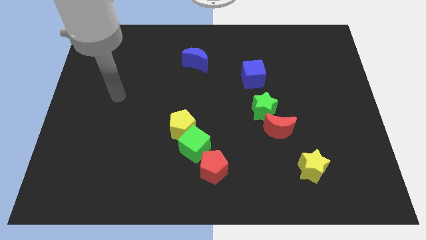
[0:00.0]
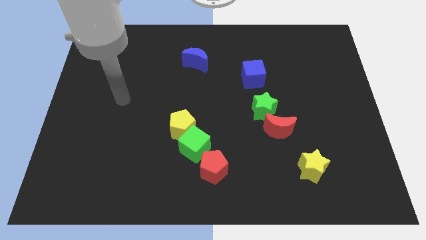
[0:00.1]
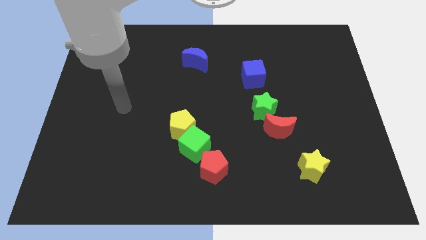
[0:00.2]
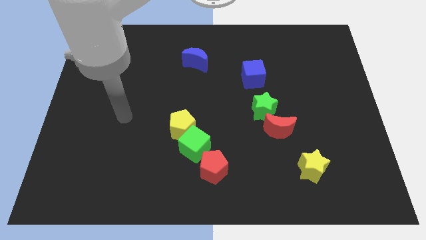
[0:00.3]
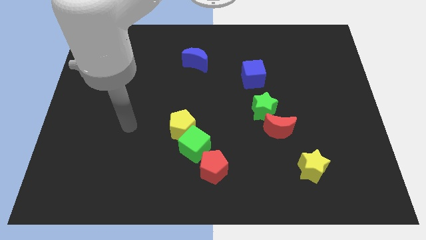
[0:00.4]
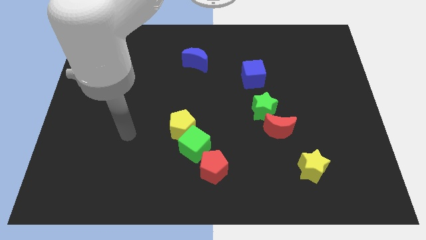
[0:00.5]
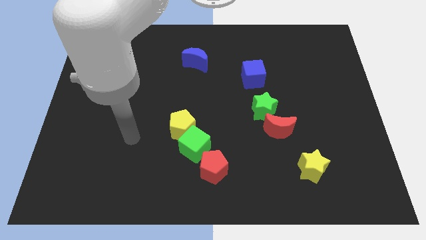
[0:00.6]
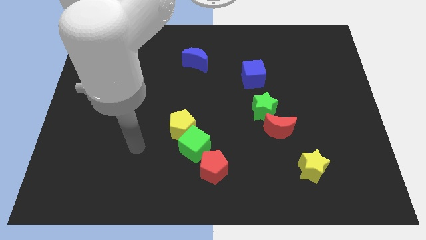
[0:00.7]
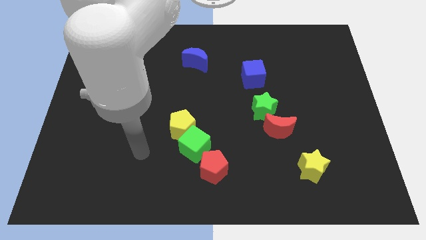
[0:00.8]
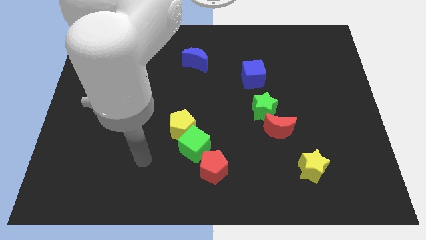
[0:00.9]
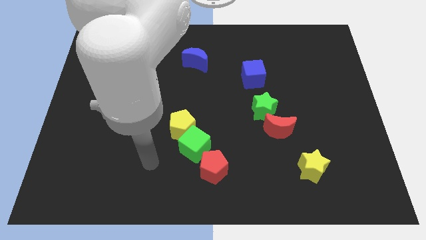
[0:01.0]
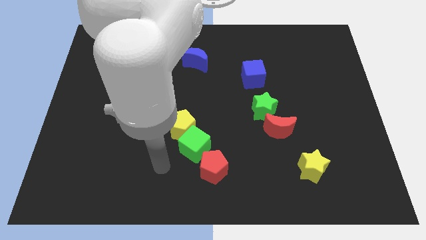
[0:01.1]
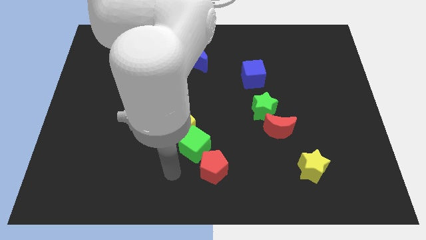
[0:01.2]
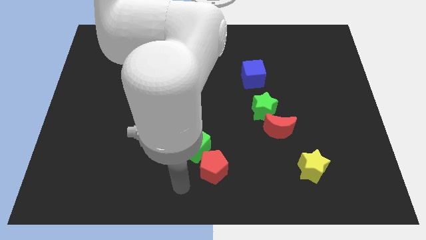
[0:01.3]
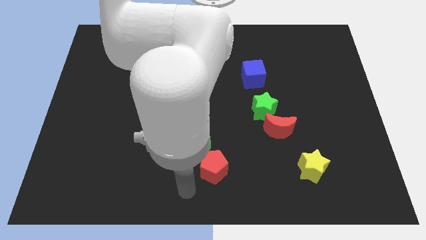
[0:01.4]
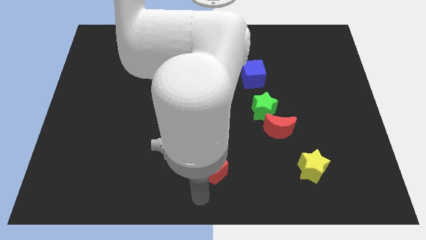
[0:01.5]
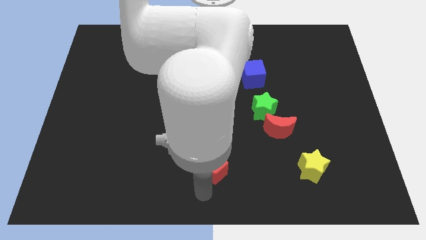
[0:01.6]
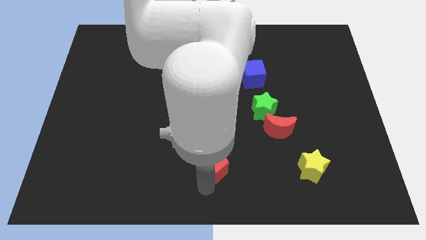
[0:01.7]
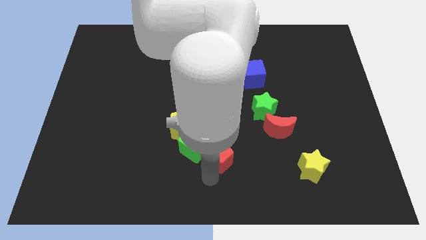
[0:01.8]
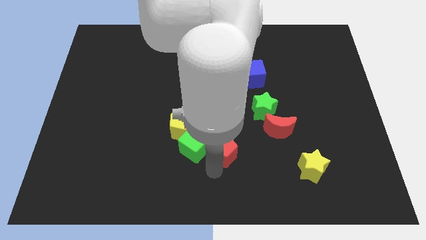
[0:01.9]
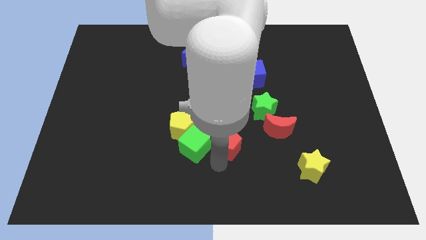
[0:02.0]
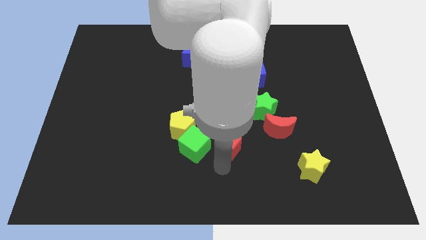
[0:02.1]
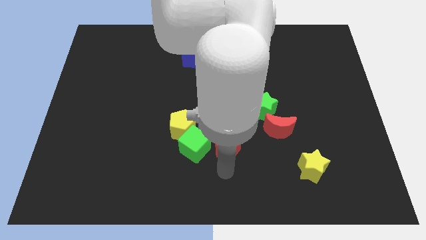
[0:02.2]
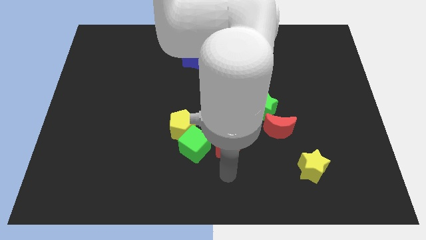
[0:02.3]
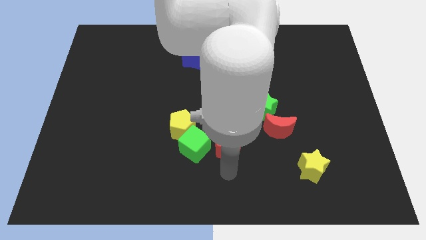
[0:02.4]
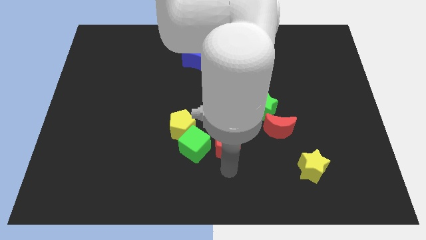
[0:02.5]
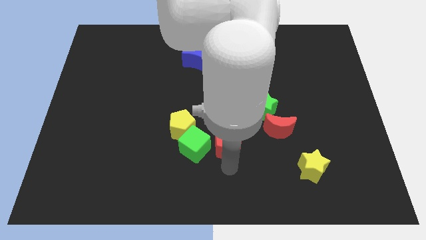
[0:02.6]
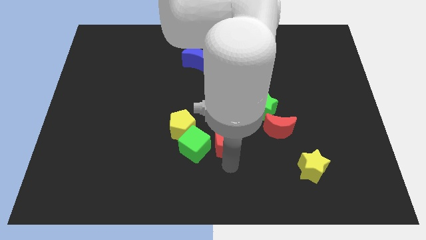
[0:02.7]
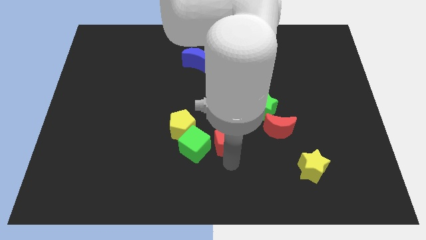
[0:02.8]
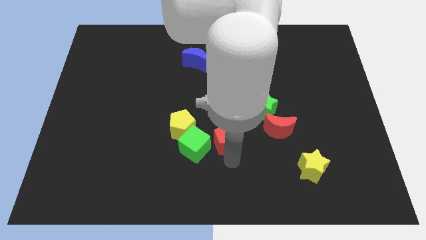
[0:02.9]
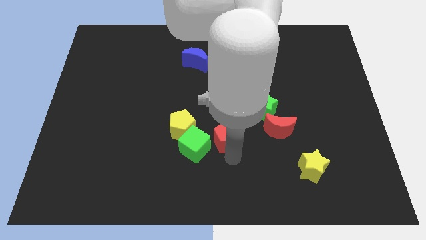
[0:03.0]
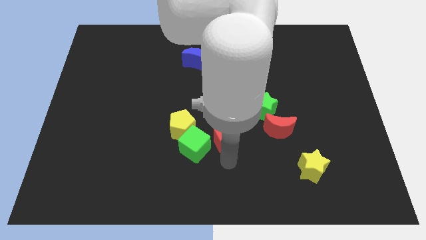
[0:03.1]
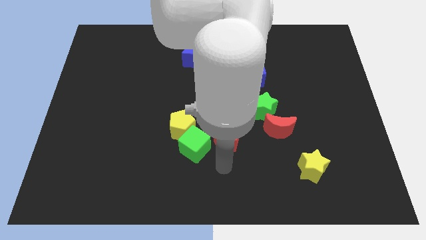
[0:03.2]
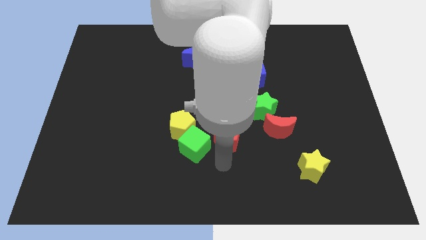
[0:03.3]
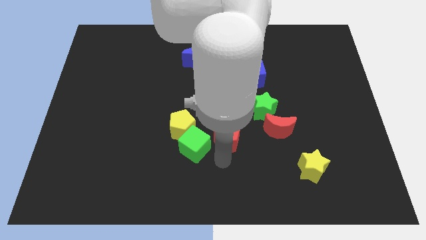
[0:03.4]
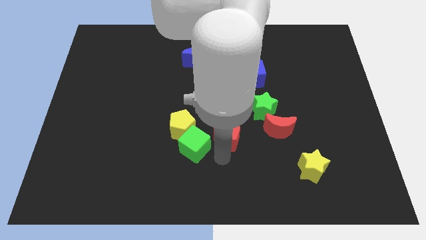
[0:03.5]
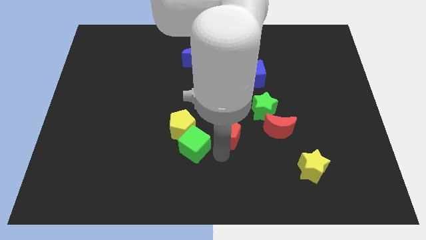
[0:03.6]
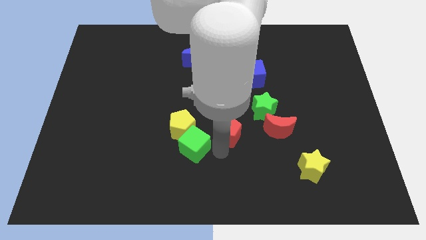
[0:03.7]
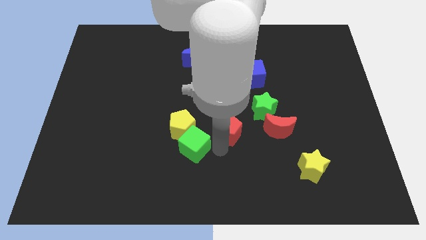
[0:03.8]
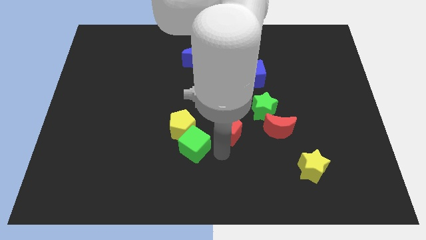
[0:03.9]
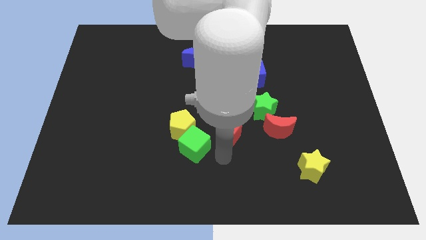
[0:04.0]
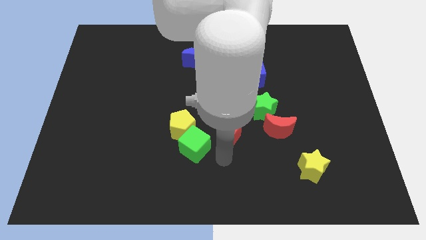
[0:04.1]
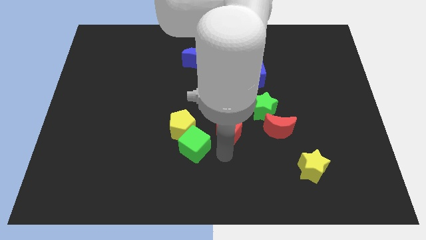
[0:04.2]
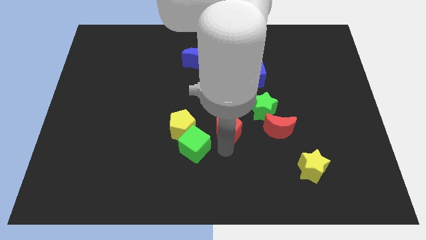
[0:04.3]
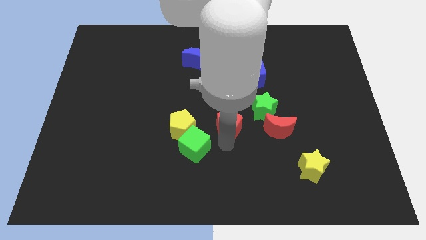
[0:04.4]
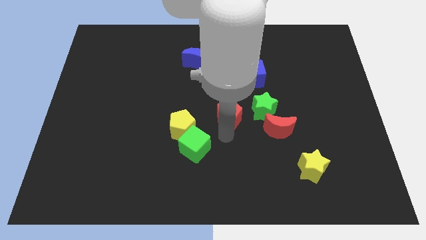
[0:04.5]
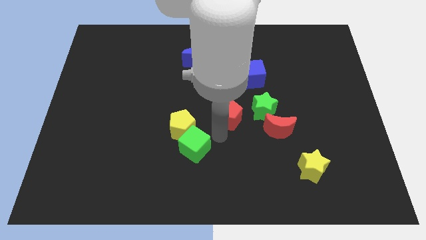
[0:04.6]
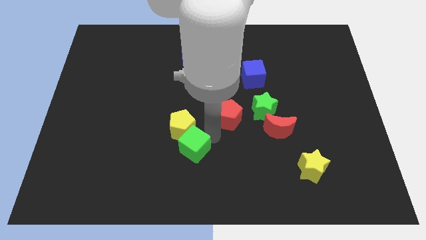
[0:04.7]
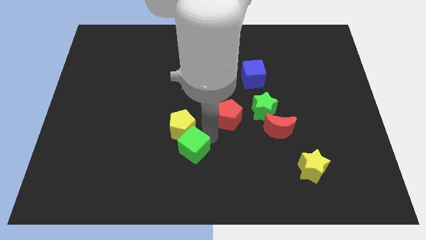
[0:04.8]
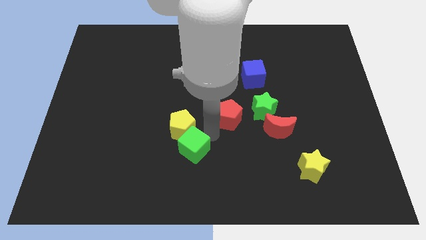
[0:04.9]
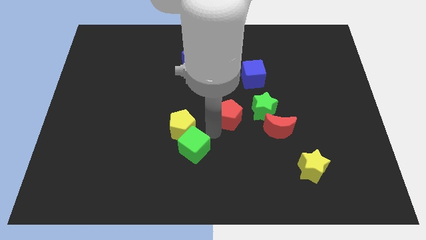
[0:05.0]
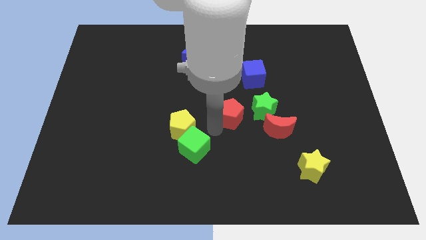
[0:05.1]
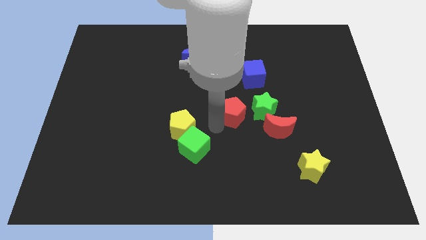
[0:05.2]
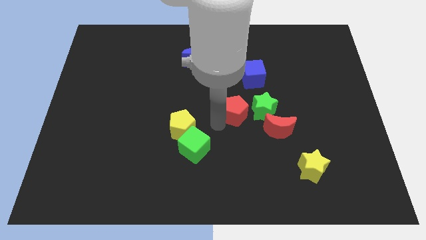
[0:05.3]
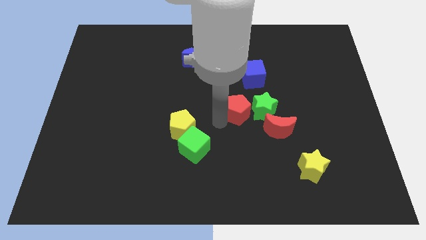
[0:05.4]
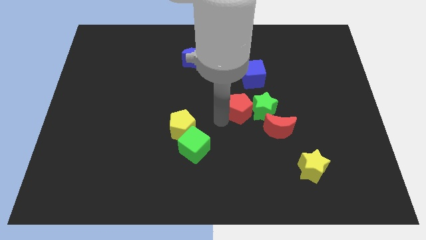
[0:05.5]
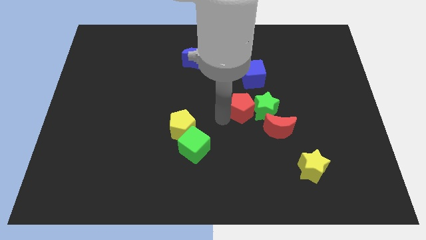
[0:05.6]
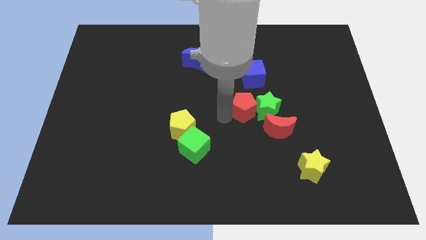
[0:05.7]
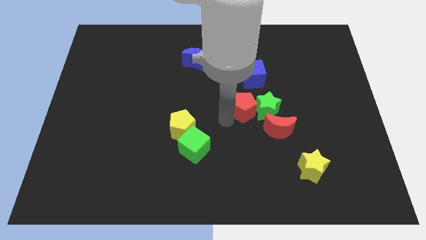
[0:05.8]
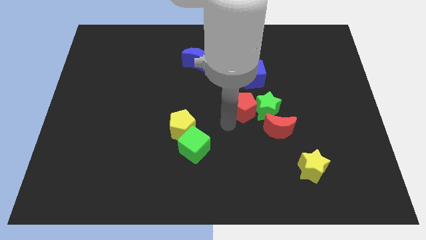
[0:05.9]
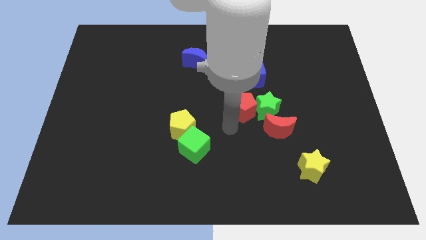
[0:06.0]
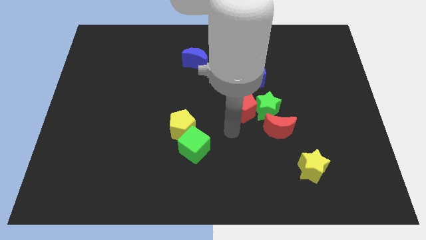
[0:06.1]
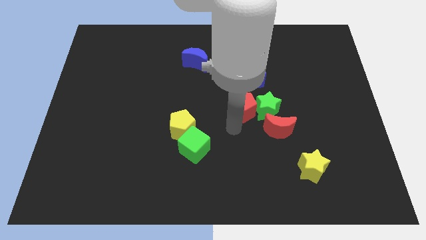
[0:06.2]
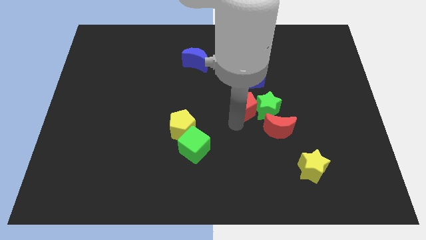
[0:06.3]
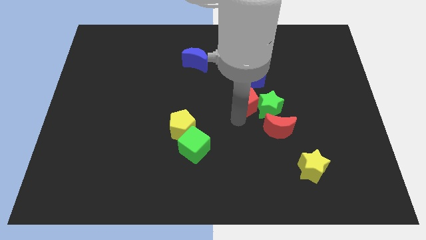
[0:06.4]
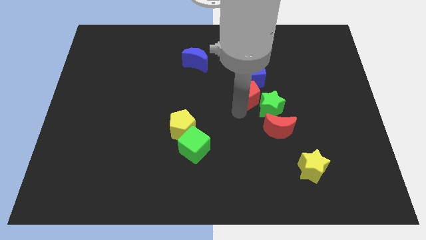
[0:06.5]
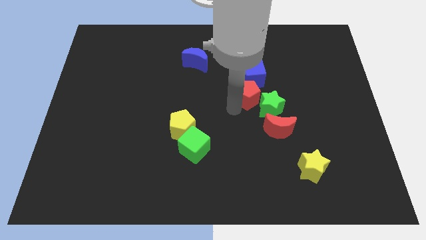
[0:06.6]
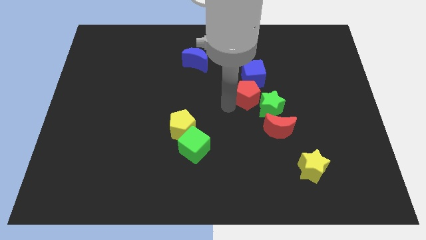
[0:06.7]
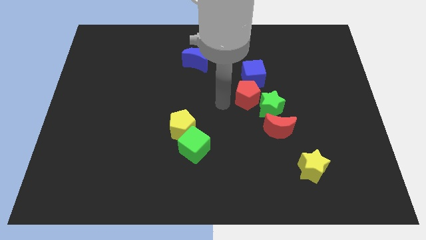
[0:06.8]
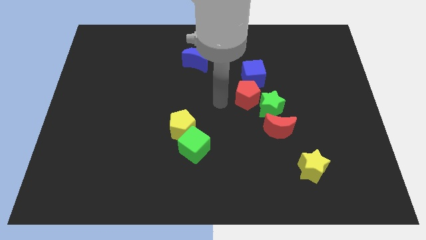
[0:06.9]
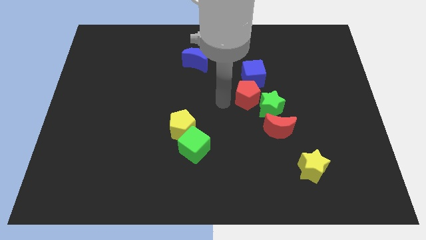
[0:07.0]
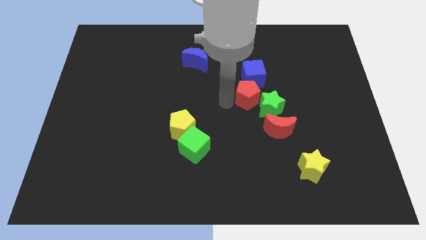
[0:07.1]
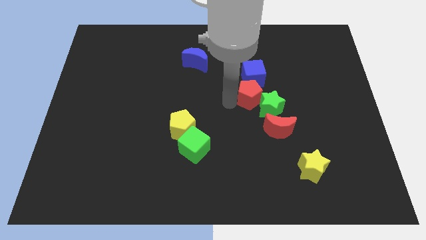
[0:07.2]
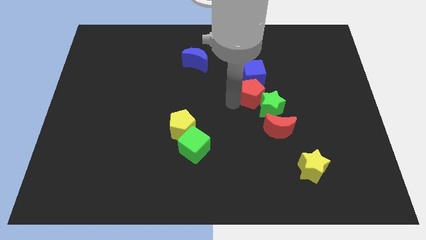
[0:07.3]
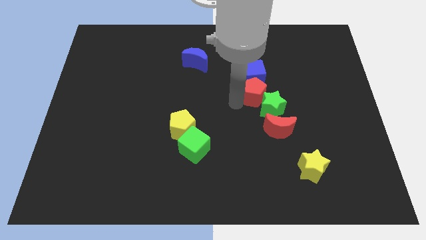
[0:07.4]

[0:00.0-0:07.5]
move the red pentagon above the red moon
